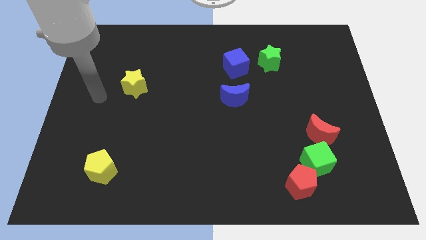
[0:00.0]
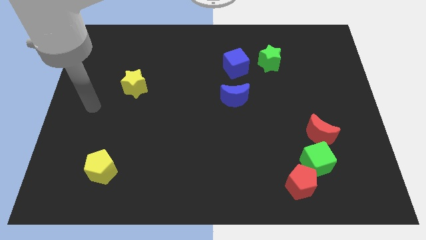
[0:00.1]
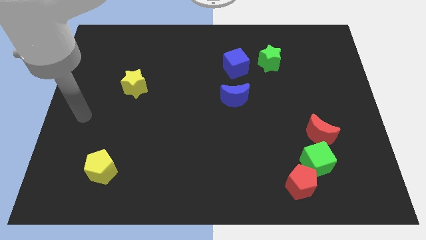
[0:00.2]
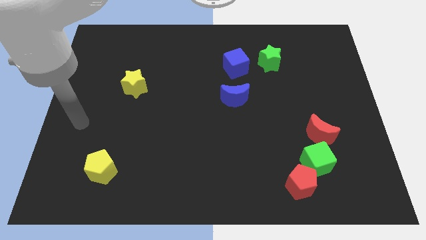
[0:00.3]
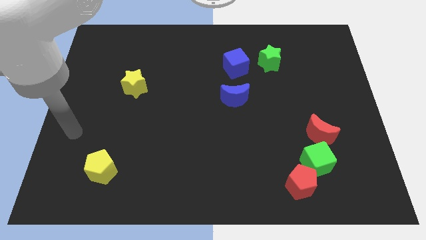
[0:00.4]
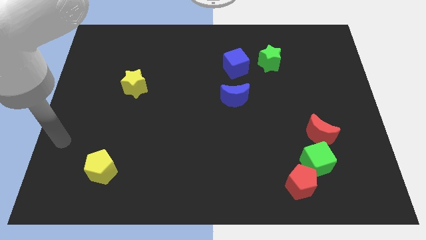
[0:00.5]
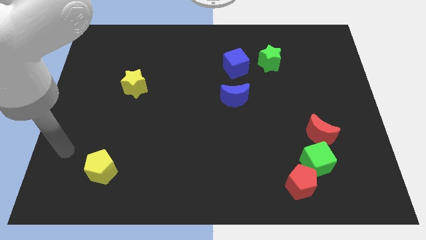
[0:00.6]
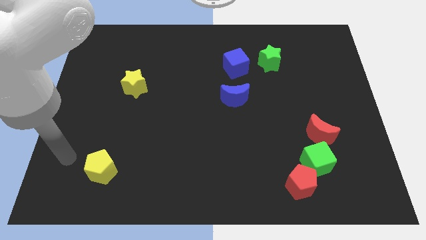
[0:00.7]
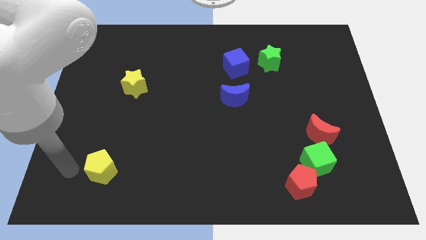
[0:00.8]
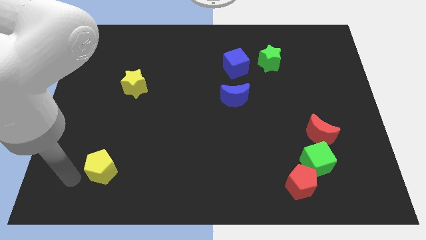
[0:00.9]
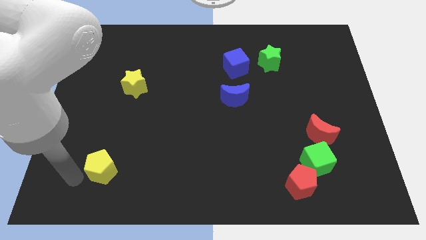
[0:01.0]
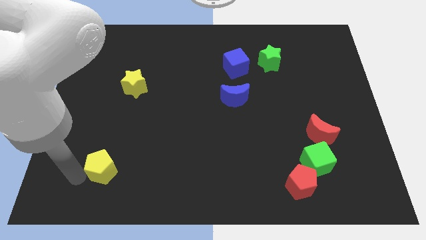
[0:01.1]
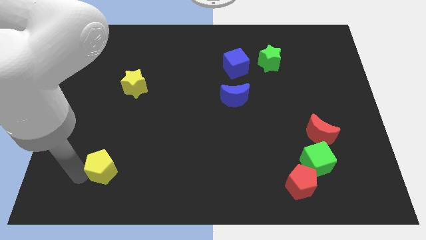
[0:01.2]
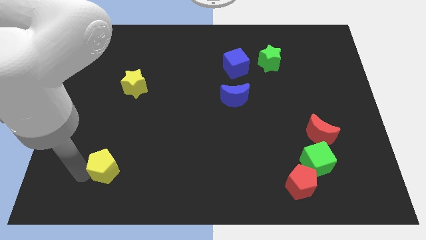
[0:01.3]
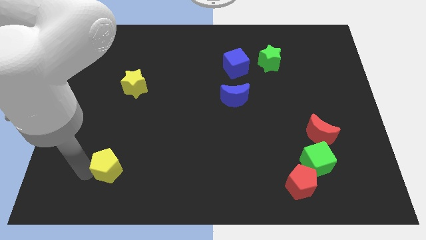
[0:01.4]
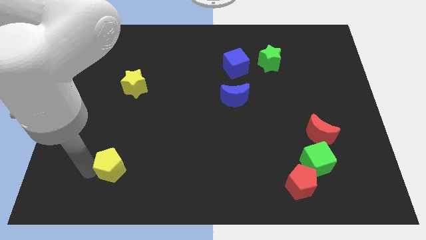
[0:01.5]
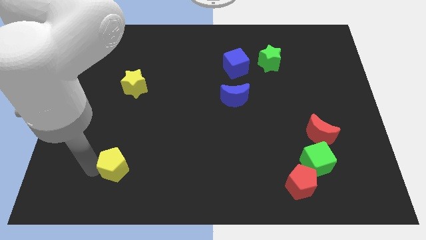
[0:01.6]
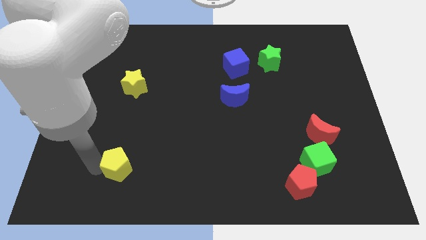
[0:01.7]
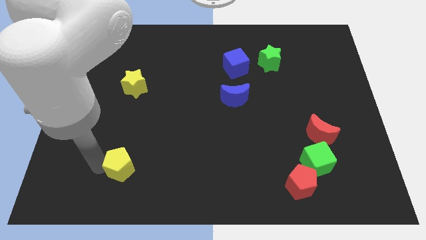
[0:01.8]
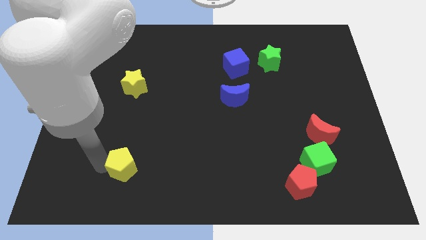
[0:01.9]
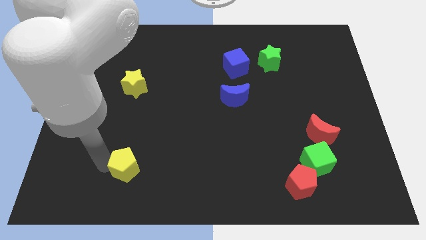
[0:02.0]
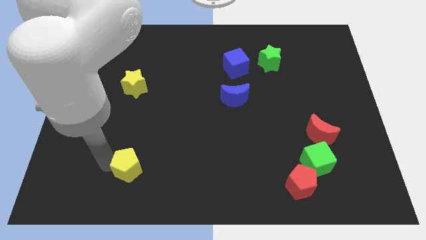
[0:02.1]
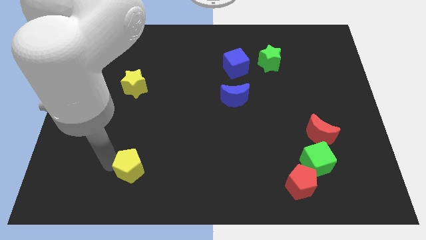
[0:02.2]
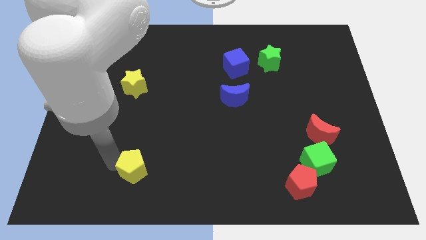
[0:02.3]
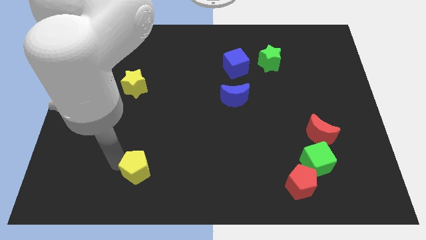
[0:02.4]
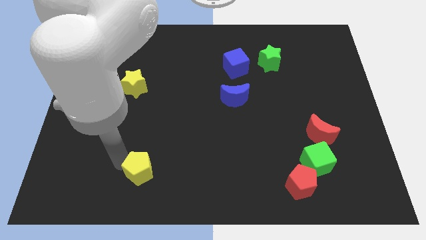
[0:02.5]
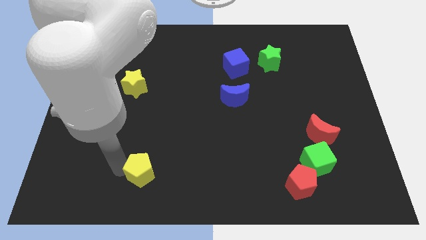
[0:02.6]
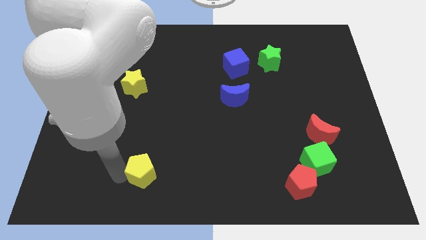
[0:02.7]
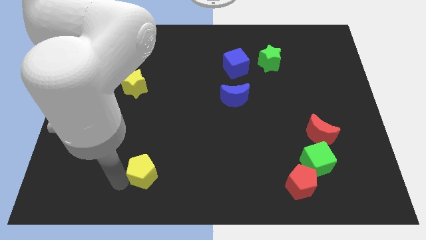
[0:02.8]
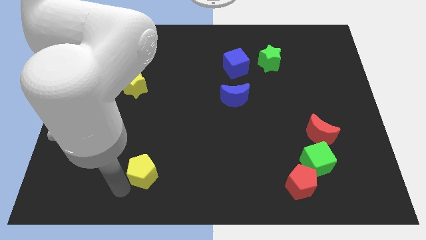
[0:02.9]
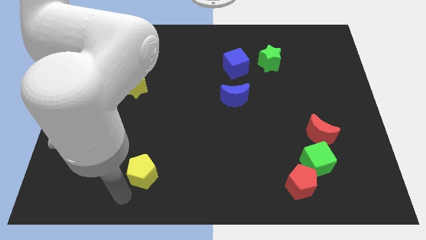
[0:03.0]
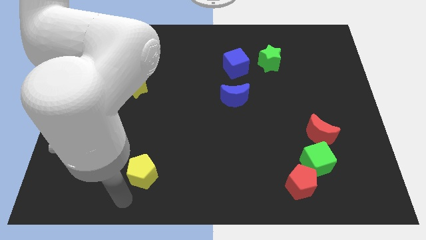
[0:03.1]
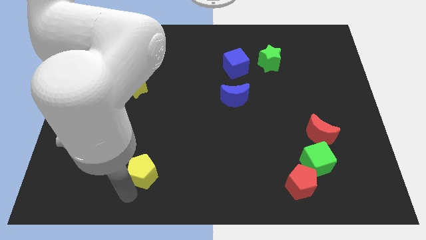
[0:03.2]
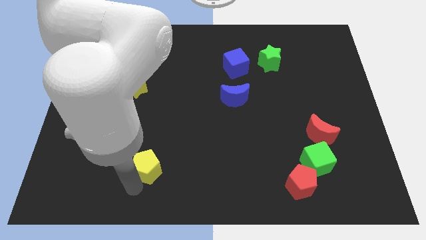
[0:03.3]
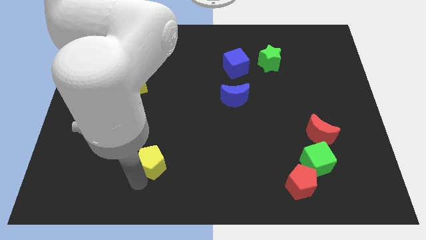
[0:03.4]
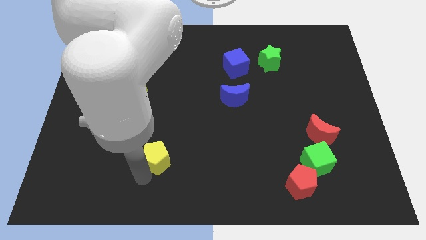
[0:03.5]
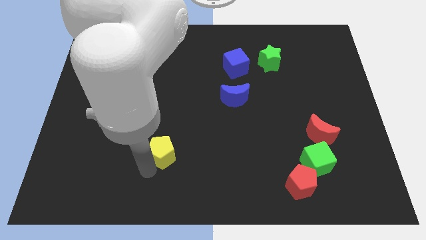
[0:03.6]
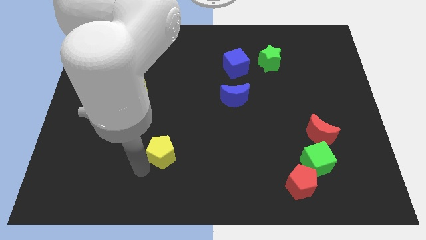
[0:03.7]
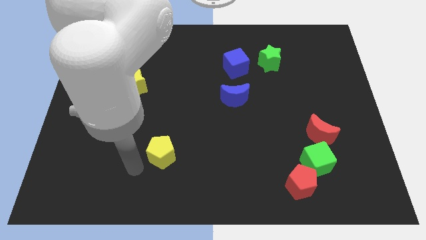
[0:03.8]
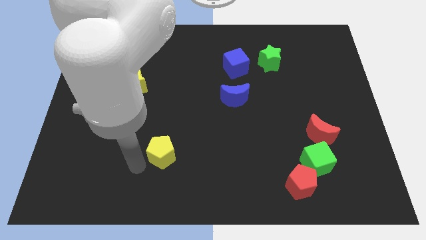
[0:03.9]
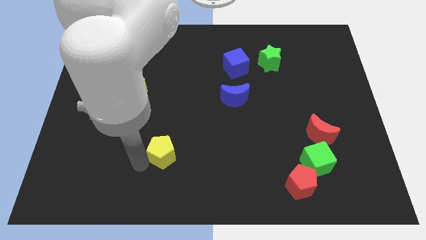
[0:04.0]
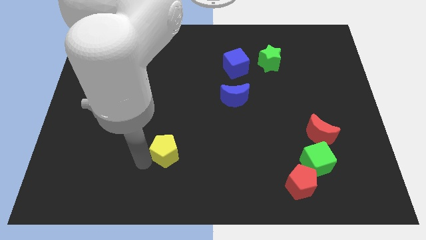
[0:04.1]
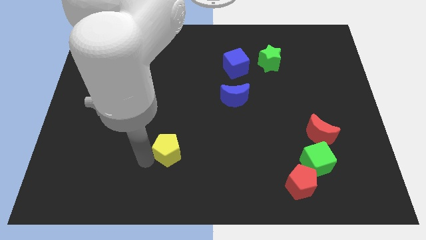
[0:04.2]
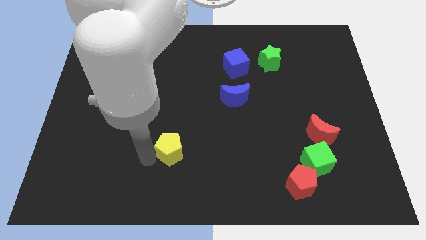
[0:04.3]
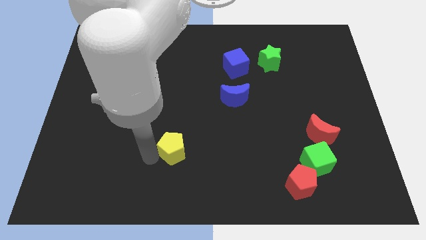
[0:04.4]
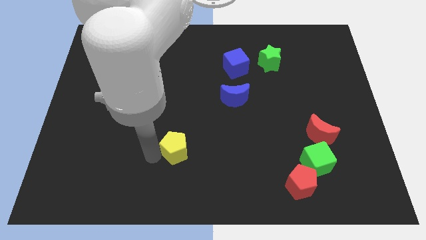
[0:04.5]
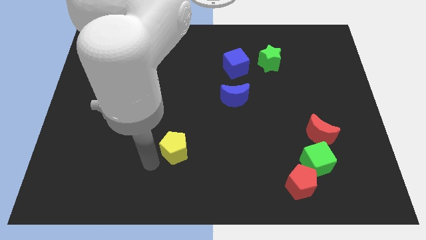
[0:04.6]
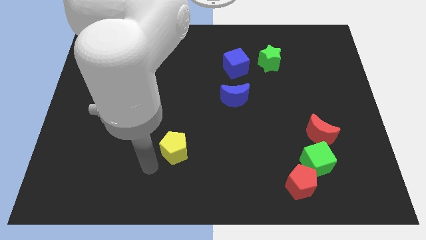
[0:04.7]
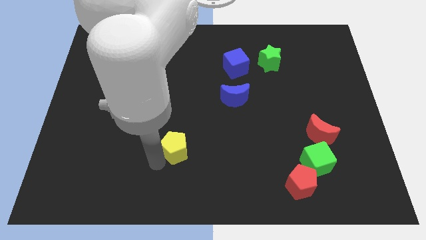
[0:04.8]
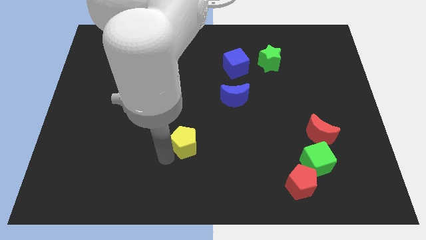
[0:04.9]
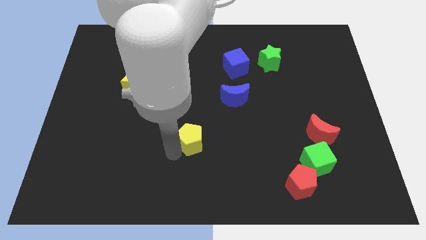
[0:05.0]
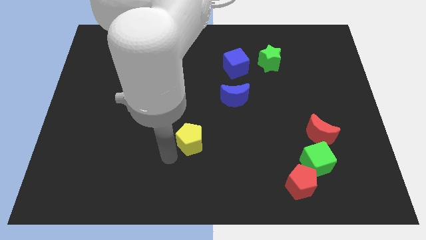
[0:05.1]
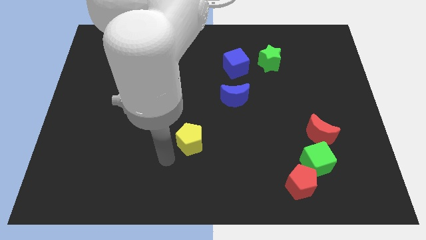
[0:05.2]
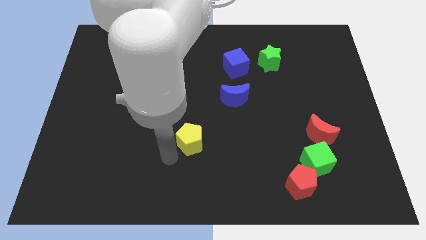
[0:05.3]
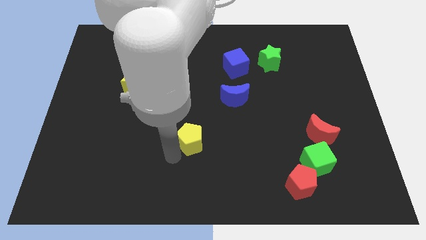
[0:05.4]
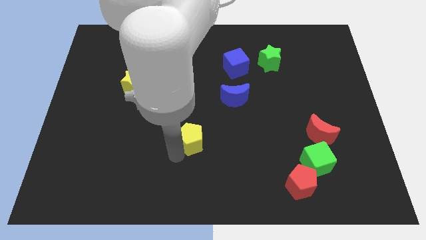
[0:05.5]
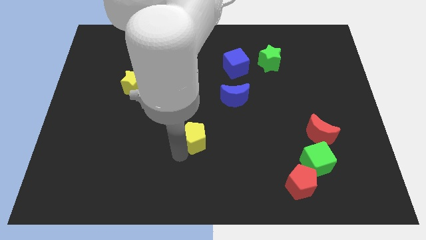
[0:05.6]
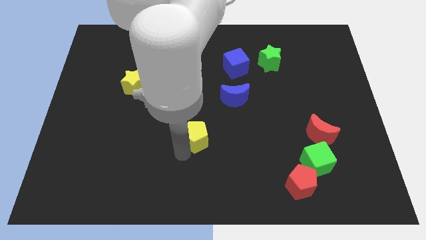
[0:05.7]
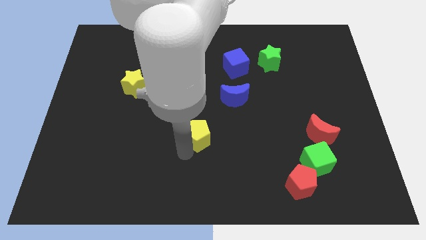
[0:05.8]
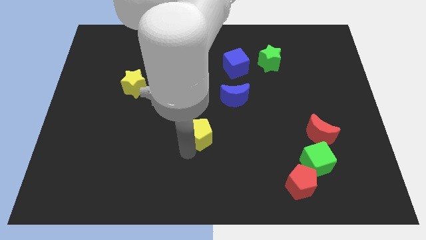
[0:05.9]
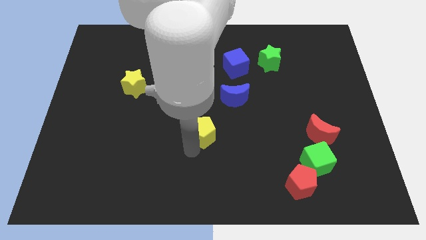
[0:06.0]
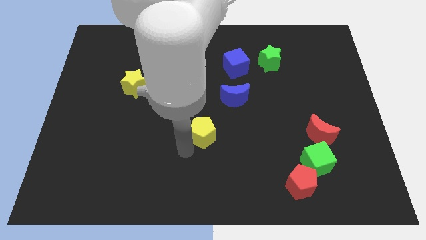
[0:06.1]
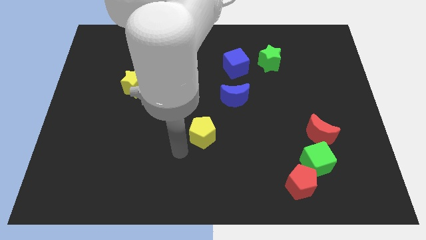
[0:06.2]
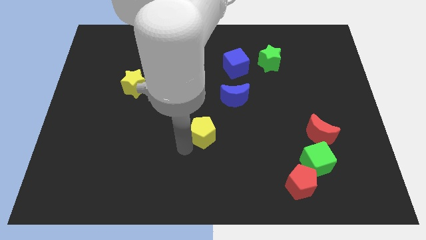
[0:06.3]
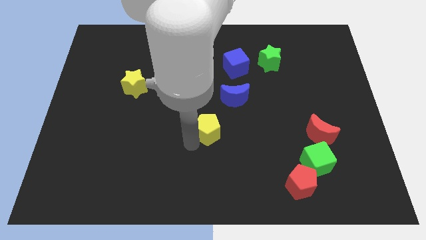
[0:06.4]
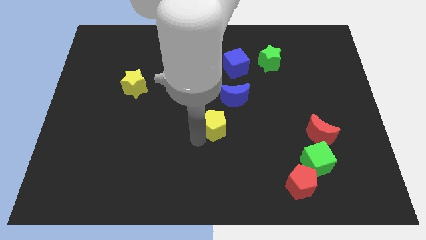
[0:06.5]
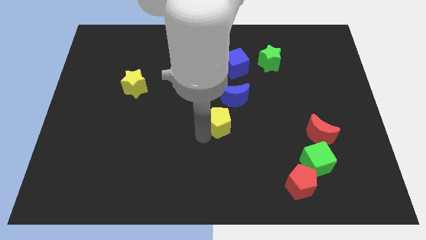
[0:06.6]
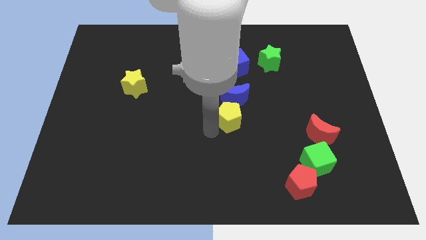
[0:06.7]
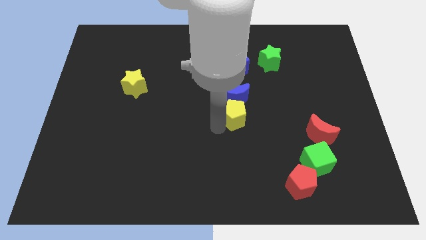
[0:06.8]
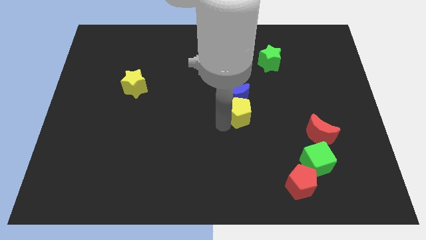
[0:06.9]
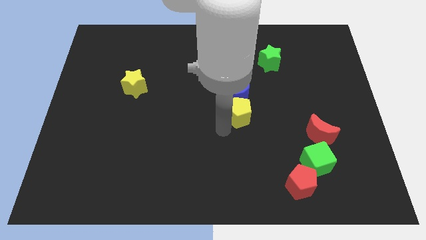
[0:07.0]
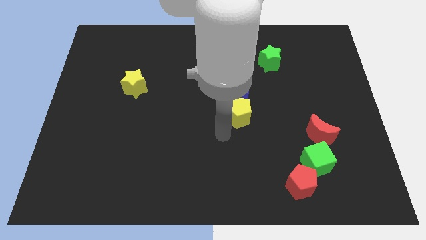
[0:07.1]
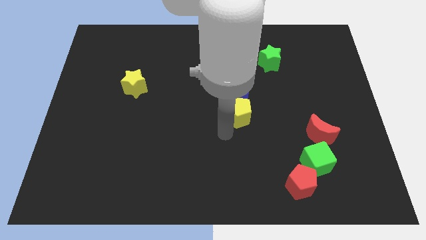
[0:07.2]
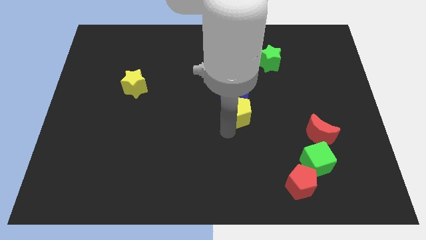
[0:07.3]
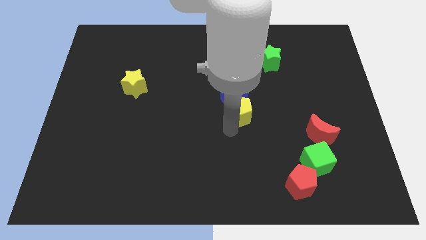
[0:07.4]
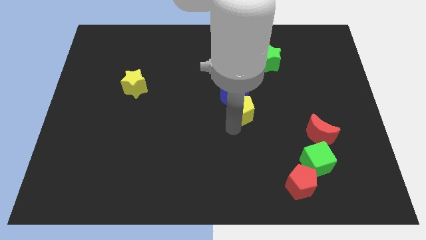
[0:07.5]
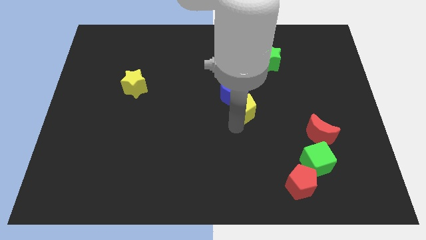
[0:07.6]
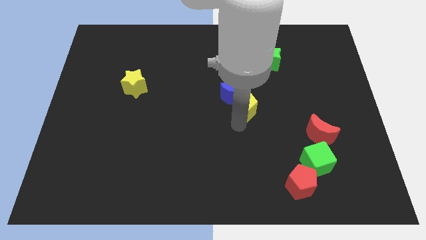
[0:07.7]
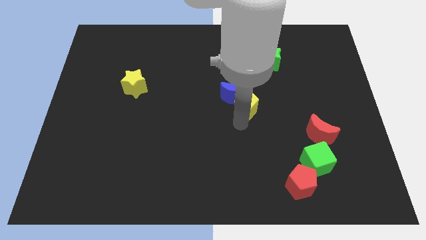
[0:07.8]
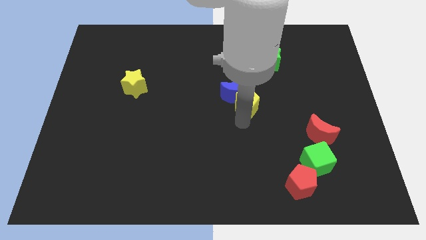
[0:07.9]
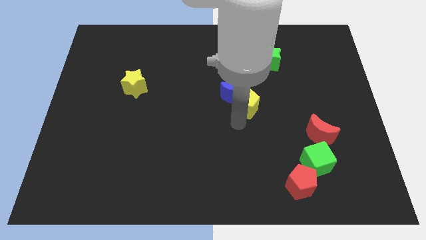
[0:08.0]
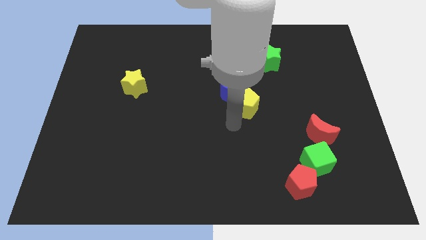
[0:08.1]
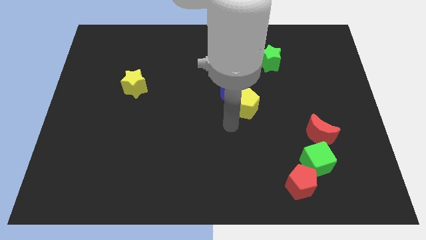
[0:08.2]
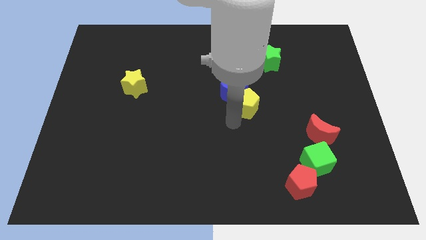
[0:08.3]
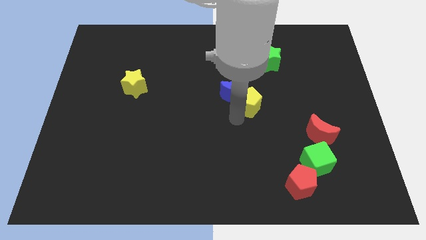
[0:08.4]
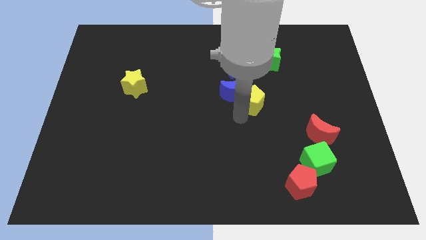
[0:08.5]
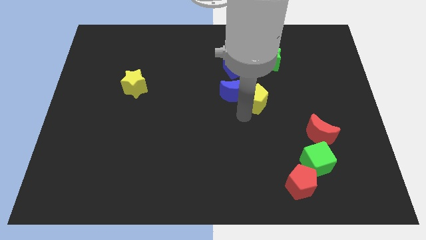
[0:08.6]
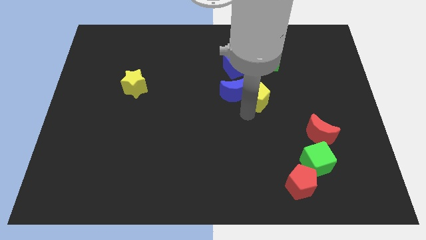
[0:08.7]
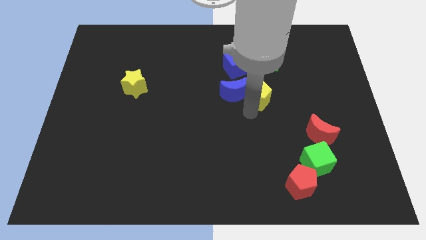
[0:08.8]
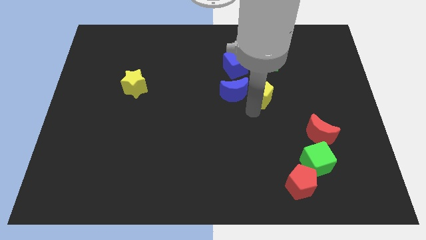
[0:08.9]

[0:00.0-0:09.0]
put the yellow pentagon diagonally up and to the right of the blue moon
